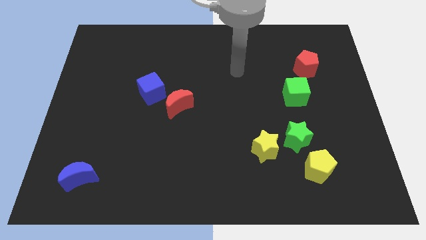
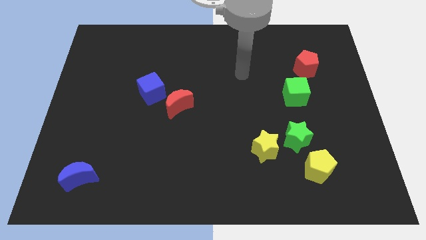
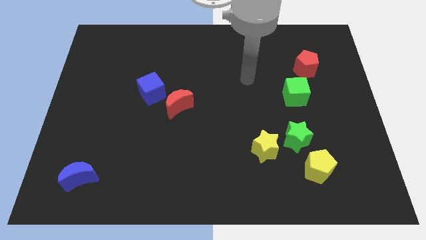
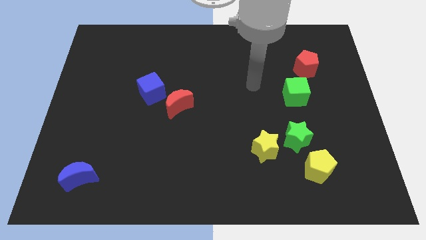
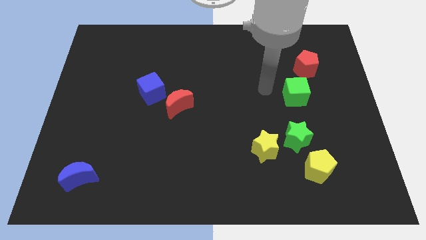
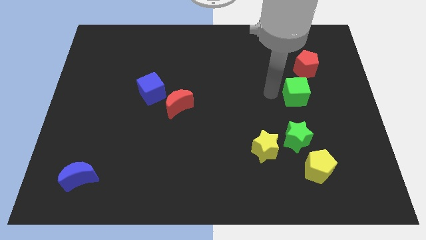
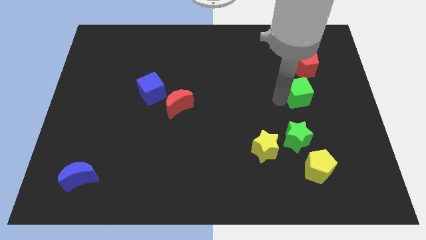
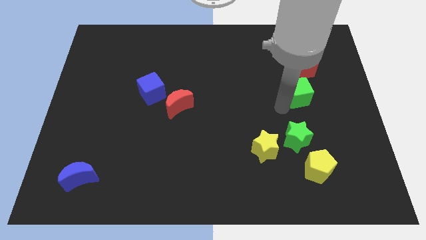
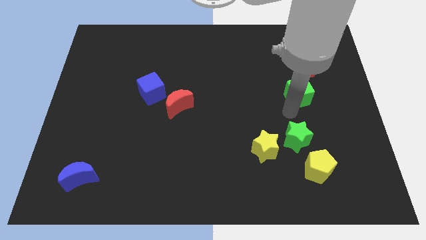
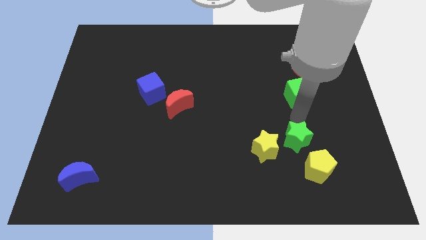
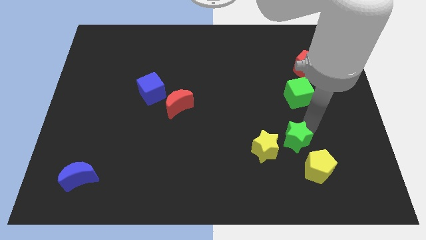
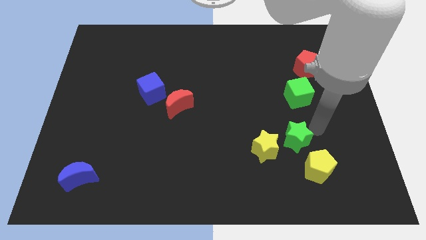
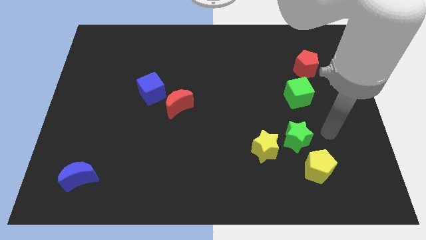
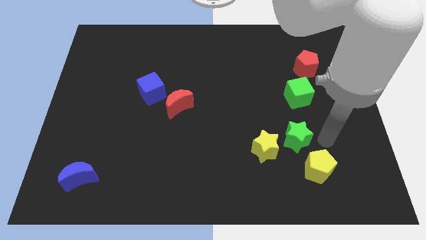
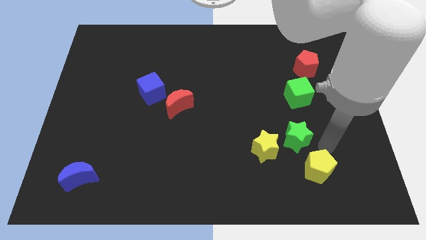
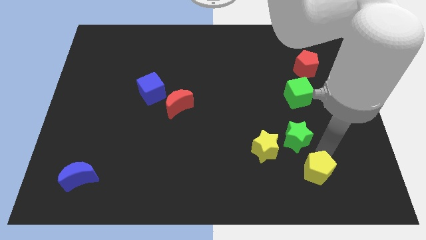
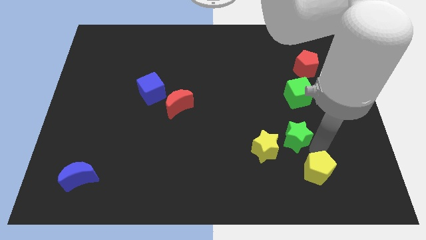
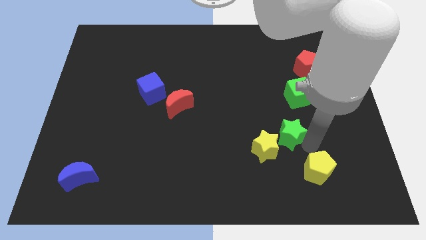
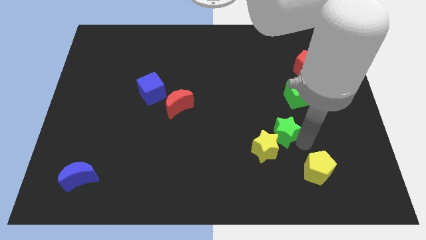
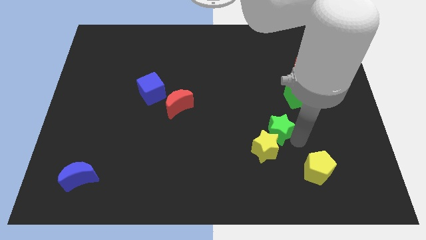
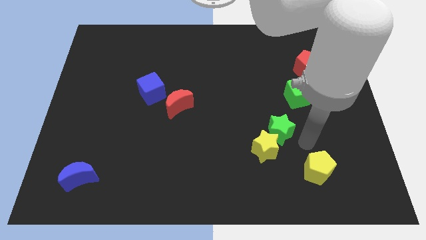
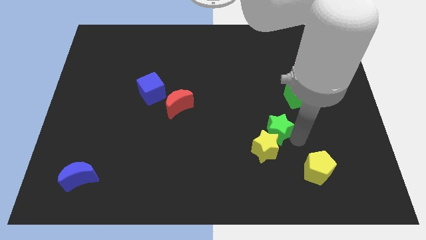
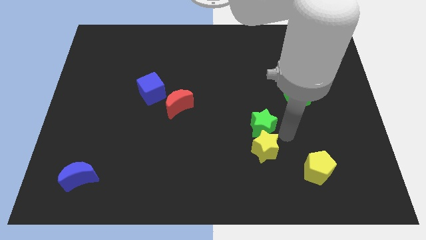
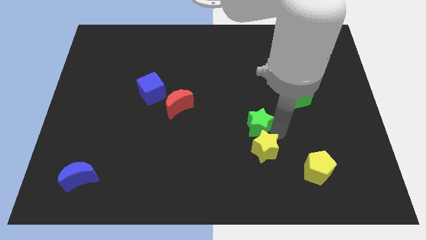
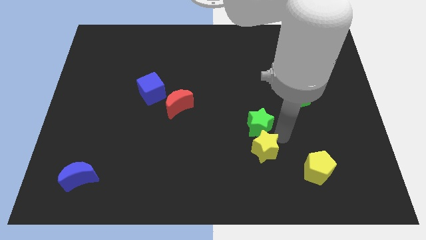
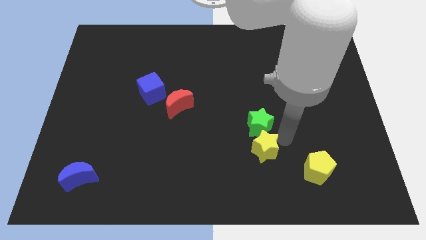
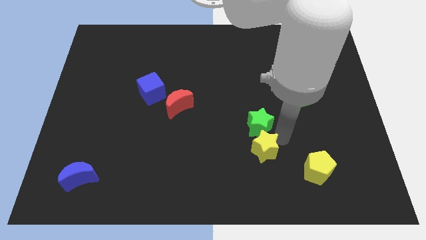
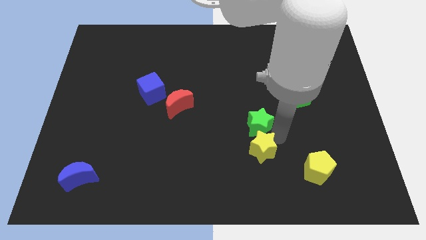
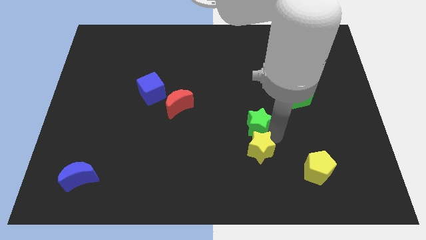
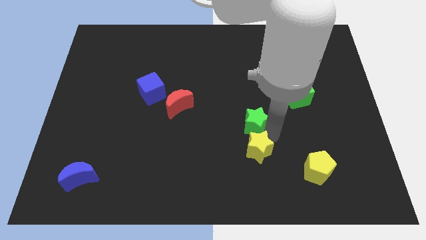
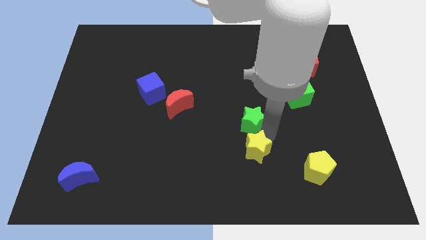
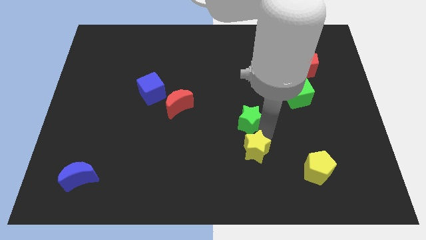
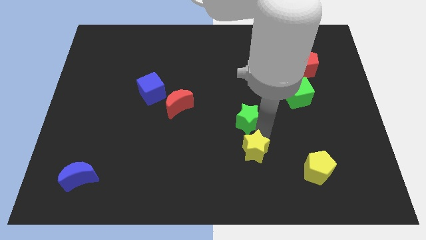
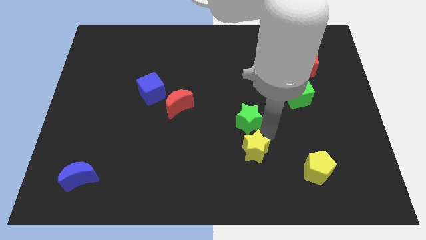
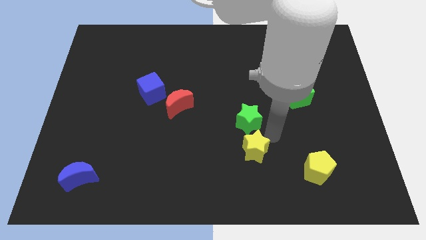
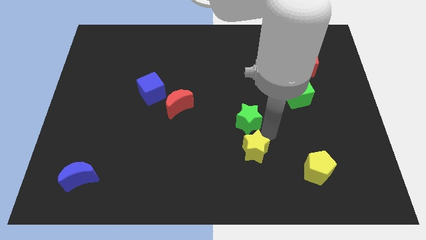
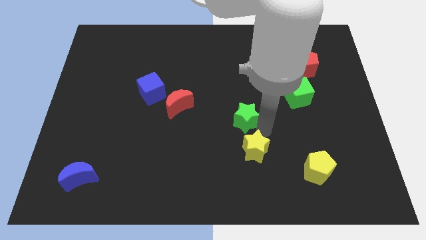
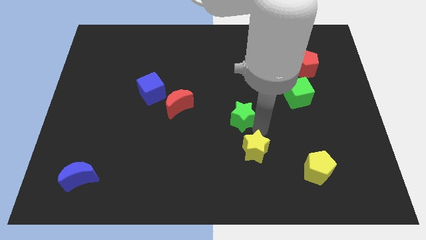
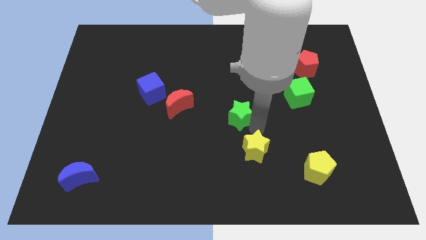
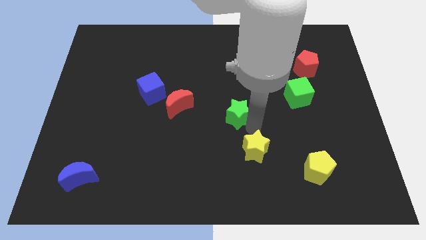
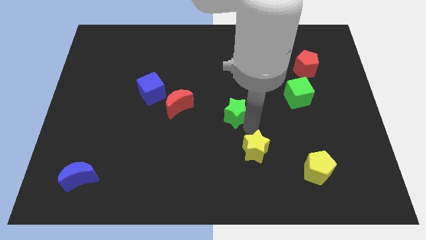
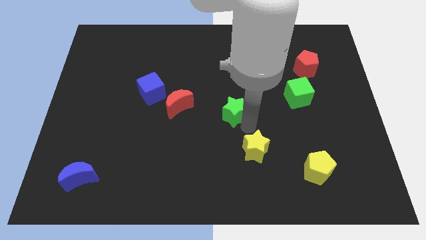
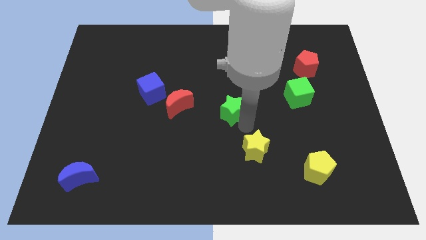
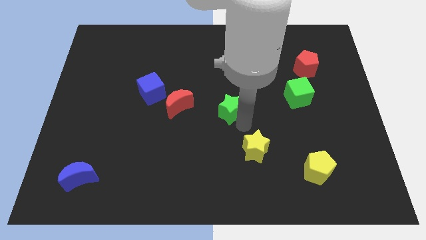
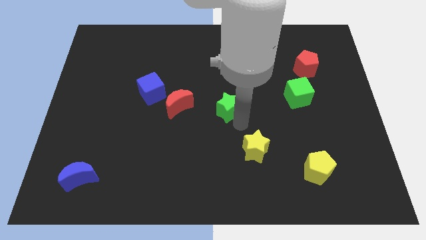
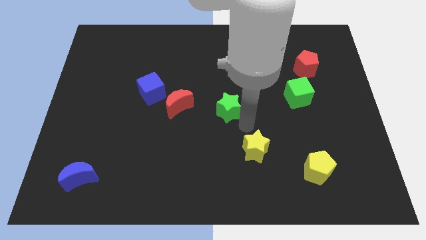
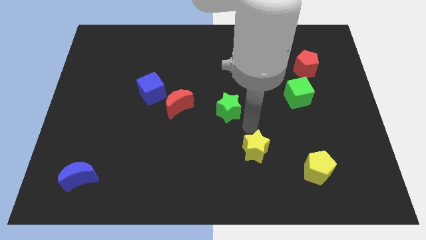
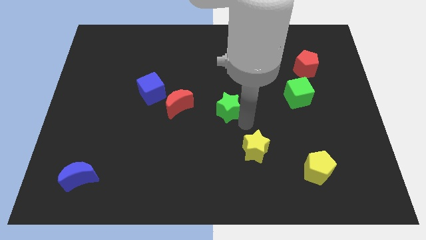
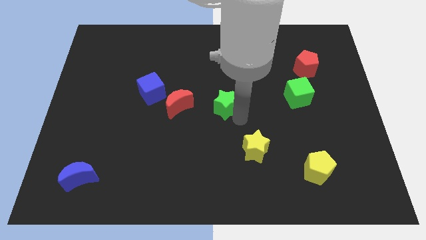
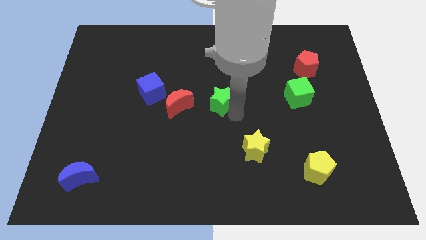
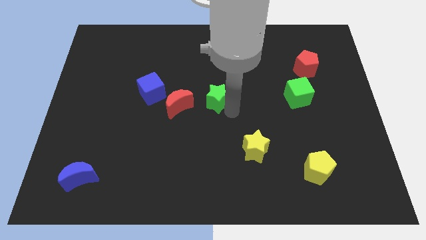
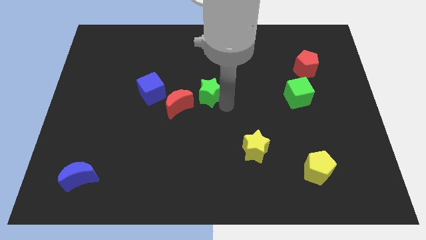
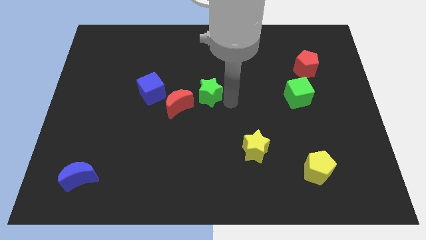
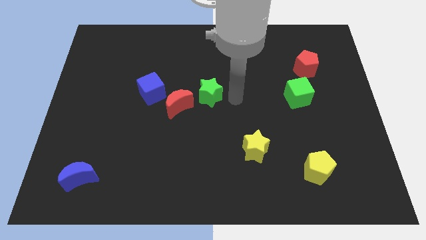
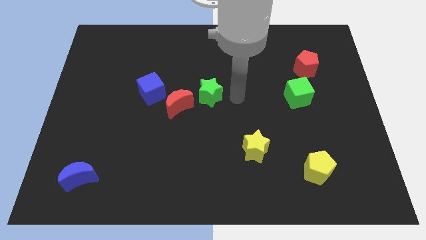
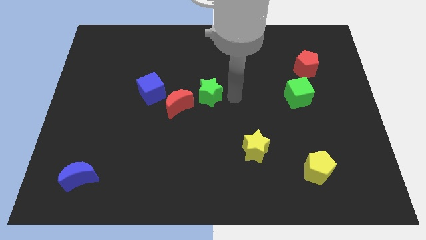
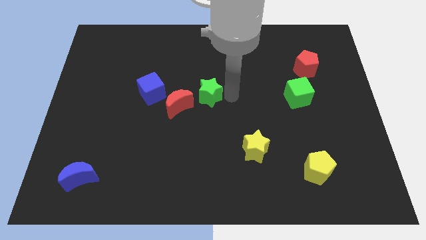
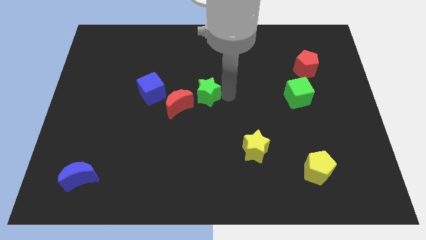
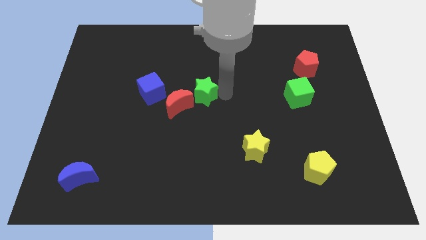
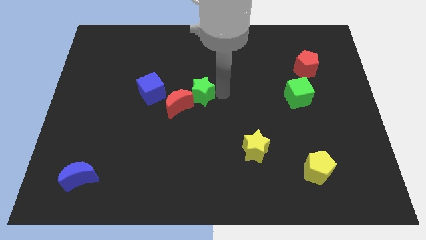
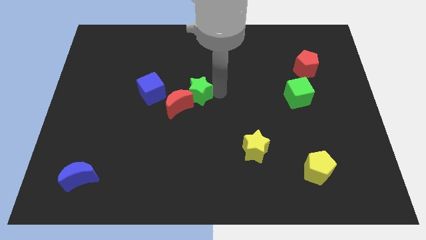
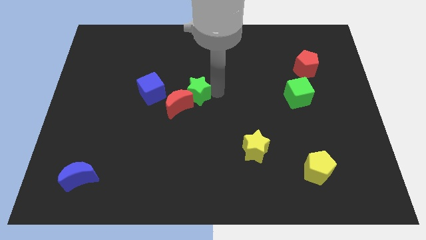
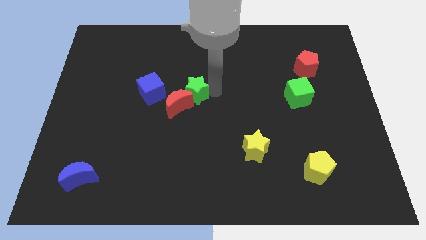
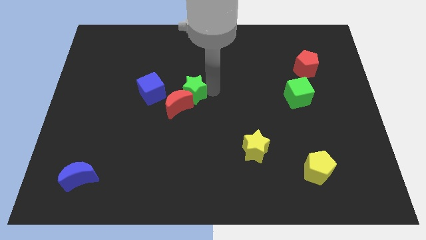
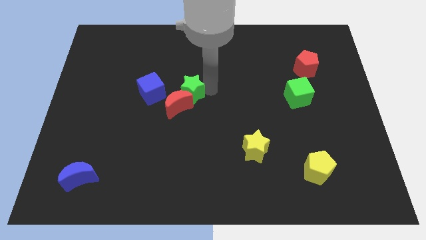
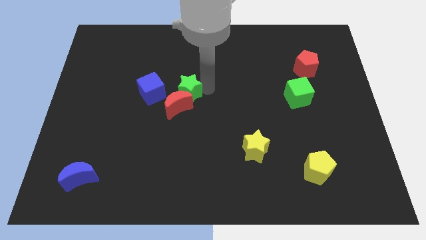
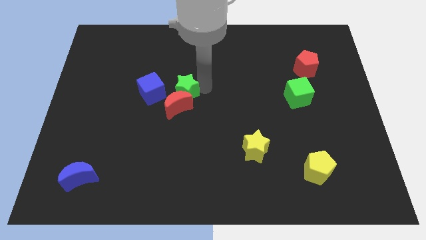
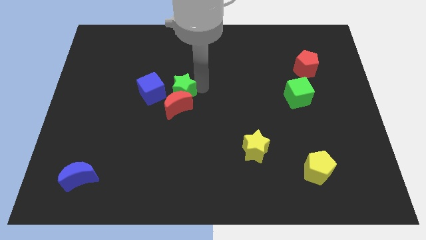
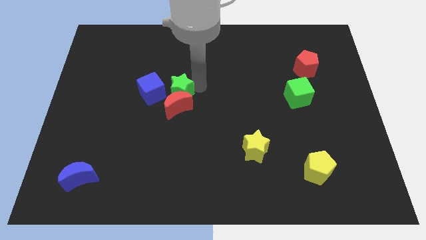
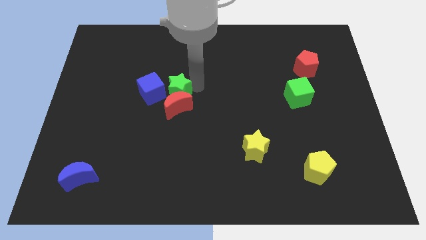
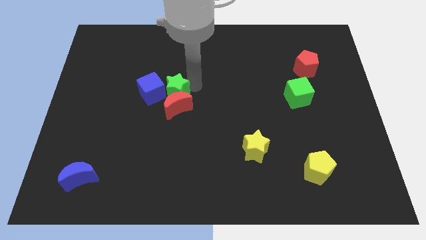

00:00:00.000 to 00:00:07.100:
slide the green star towards the blue cube

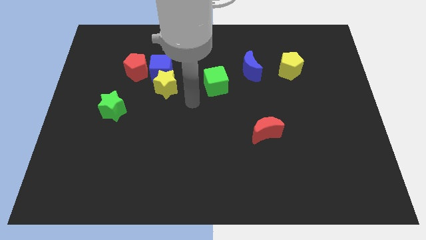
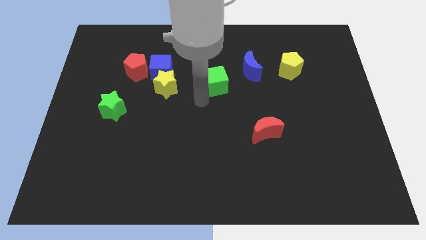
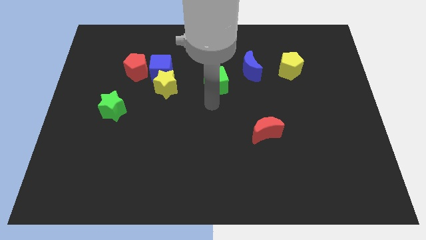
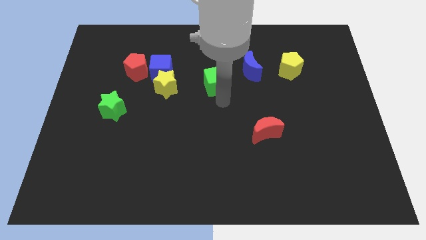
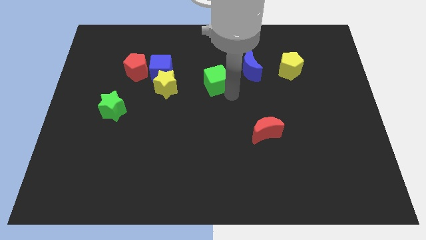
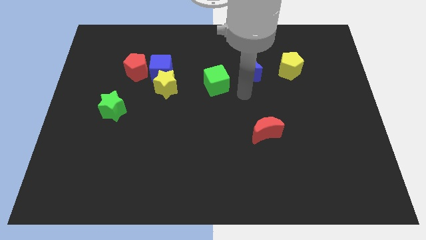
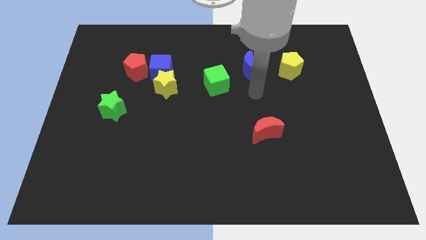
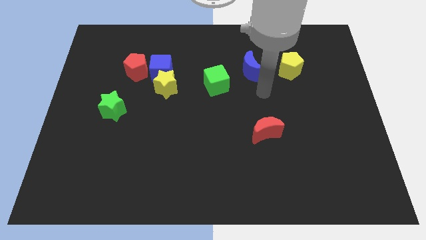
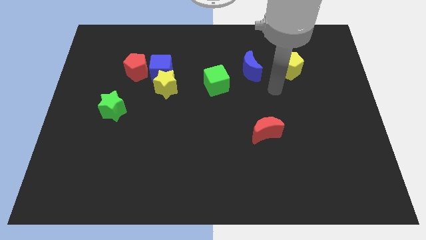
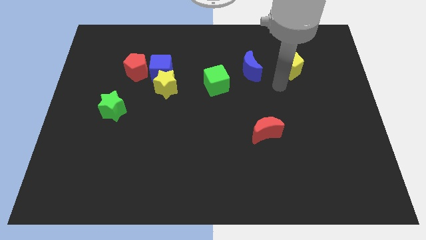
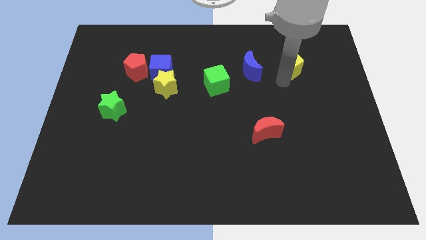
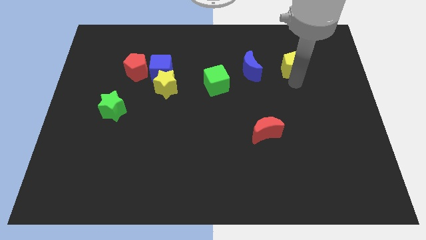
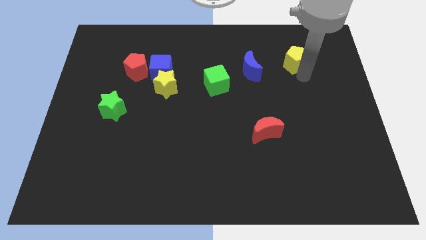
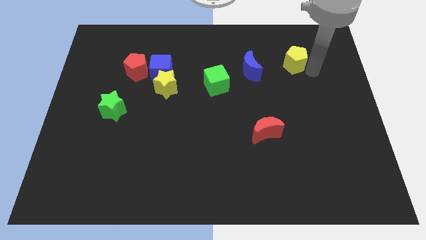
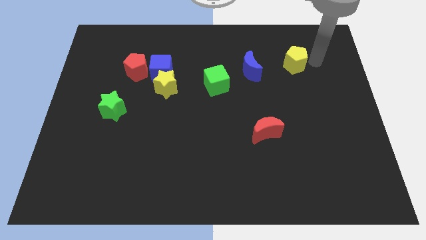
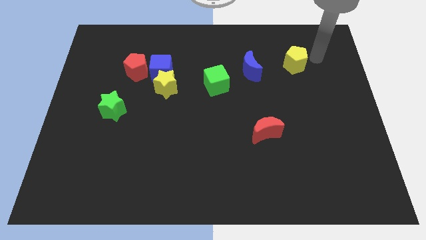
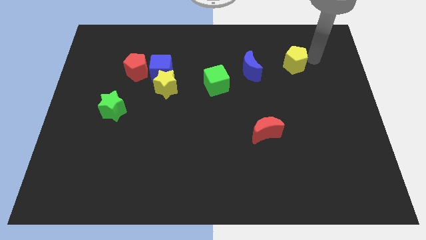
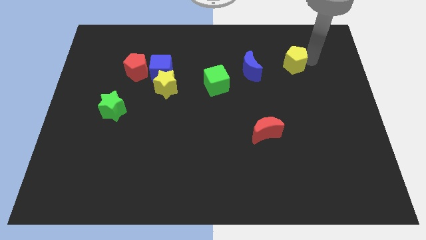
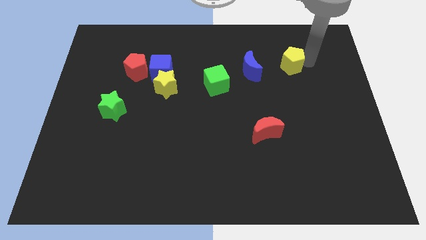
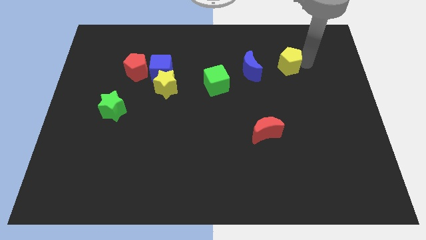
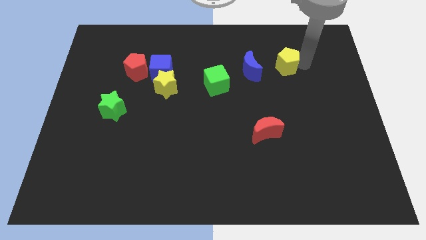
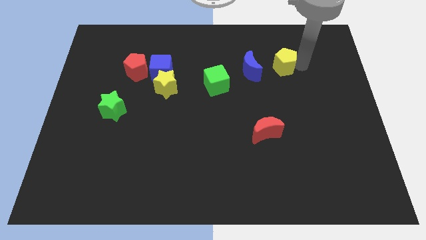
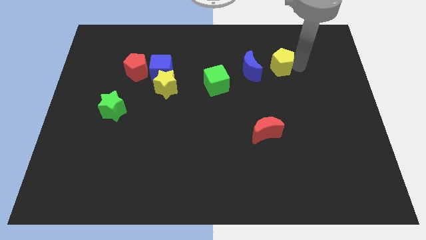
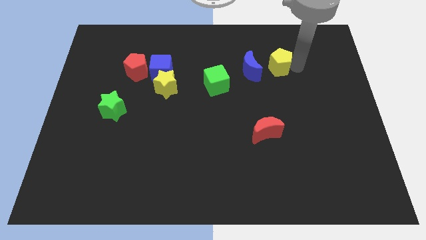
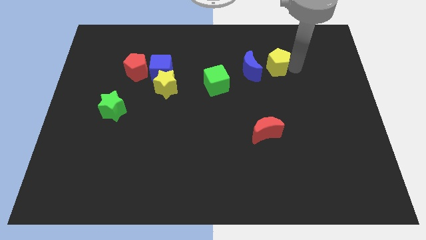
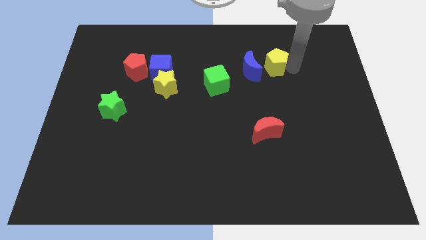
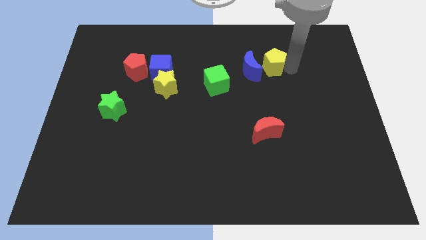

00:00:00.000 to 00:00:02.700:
push the yellow pentagon towards the blue moon
